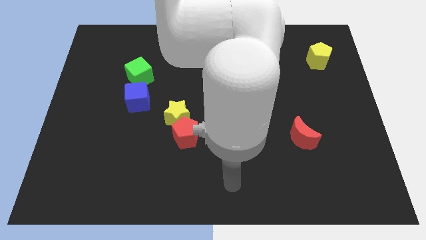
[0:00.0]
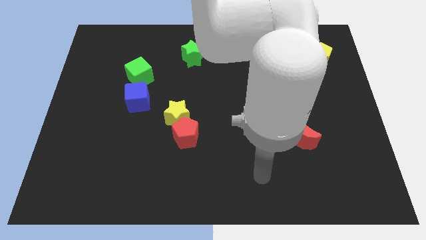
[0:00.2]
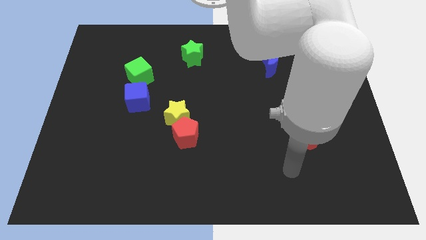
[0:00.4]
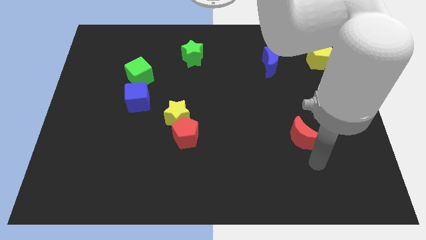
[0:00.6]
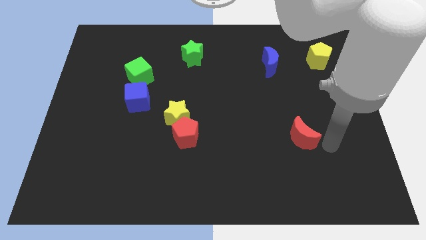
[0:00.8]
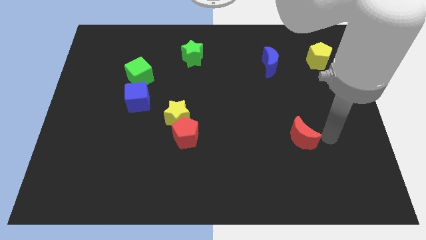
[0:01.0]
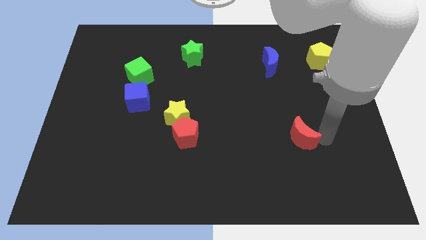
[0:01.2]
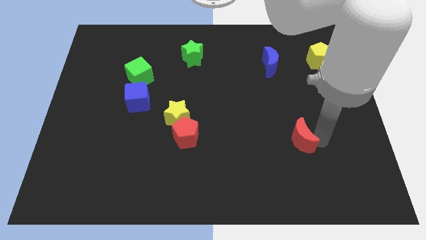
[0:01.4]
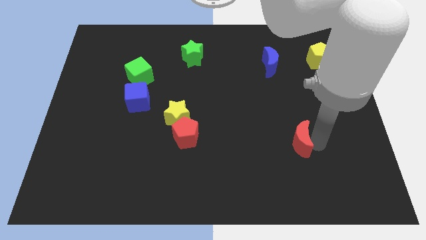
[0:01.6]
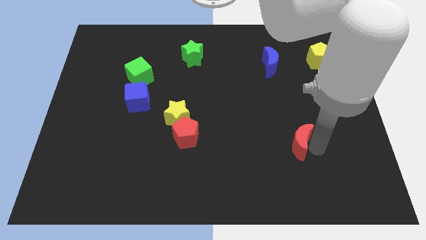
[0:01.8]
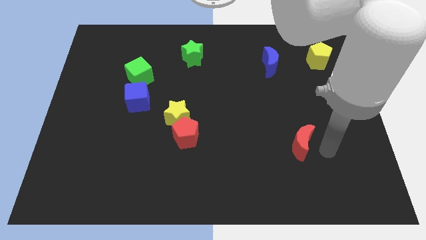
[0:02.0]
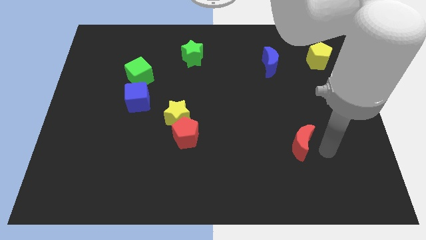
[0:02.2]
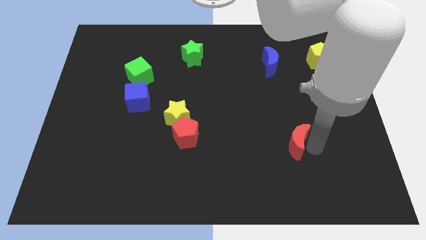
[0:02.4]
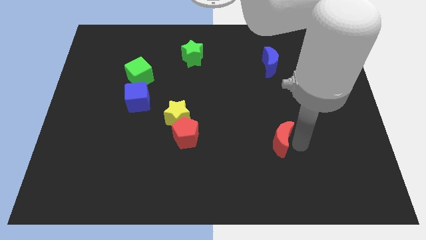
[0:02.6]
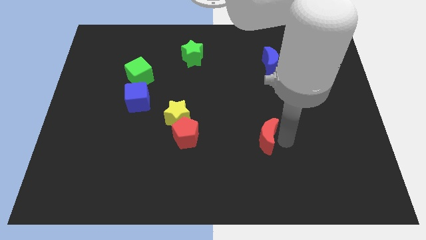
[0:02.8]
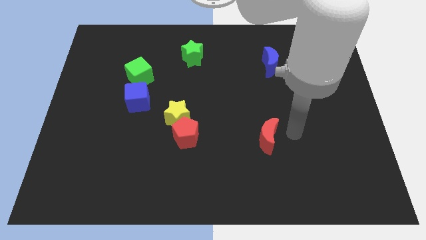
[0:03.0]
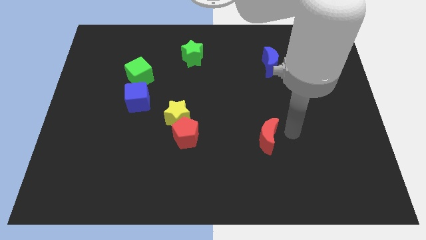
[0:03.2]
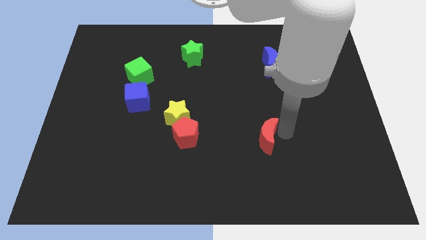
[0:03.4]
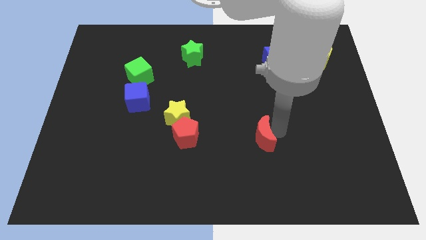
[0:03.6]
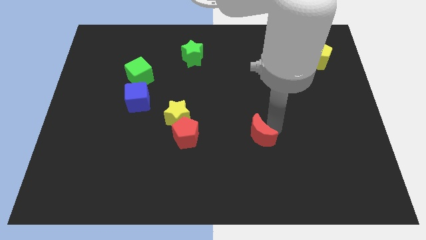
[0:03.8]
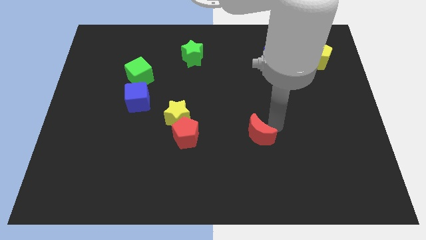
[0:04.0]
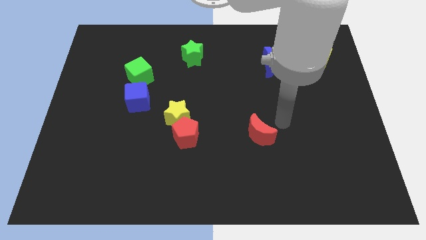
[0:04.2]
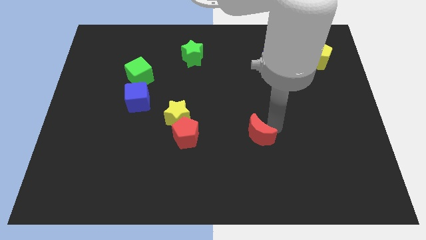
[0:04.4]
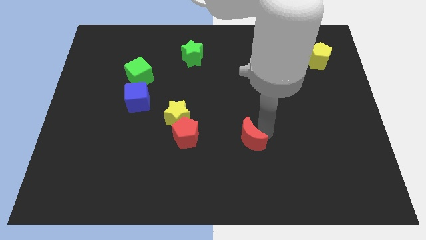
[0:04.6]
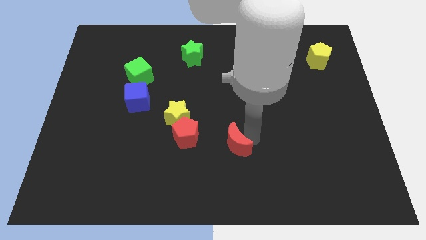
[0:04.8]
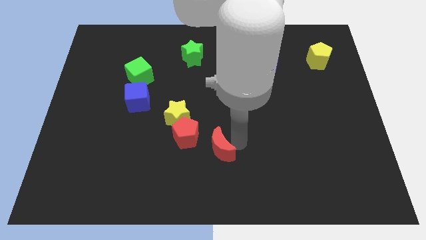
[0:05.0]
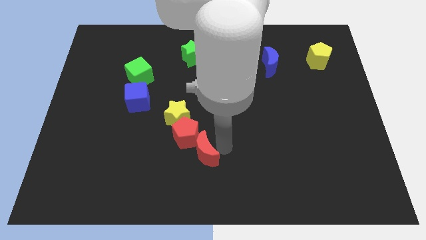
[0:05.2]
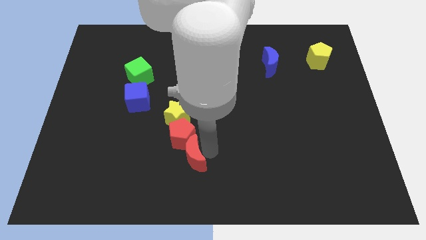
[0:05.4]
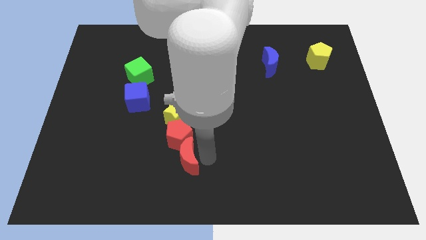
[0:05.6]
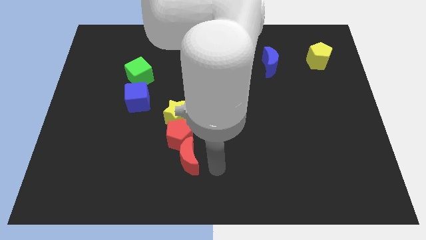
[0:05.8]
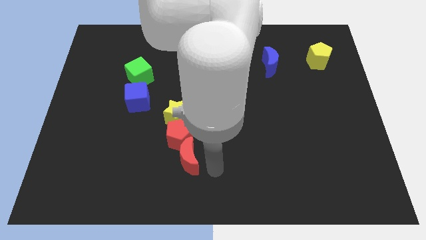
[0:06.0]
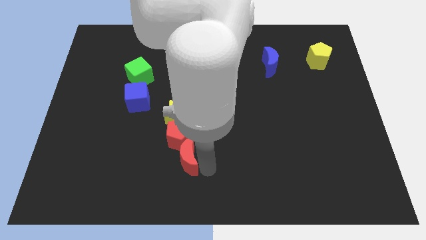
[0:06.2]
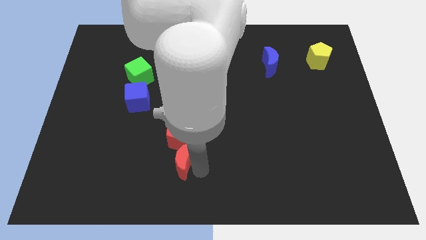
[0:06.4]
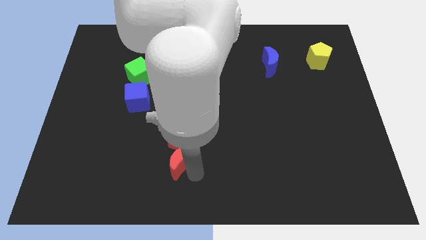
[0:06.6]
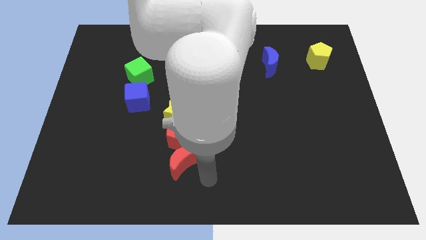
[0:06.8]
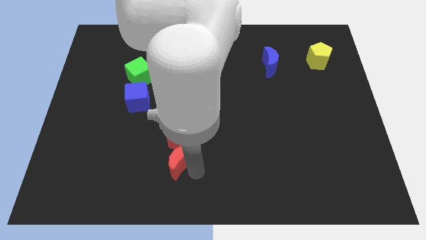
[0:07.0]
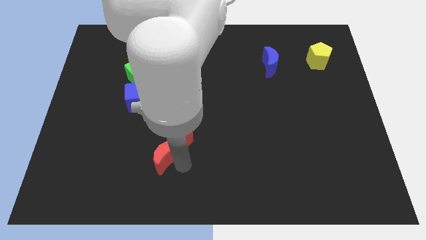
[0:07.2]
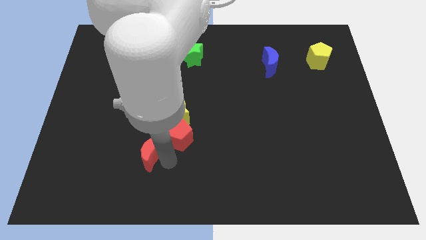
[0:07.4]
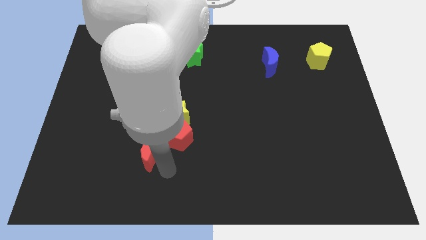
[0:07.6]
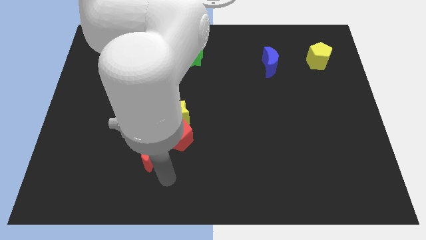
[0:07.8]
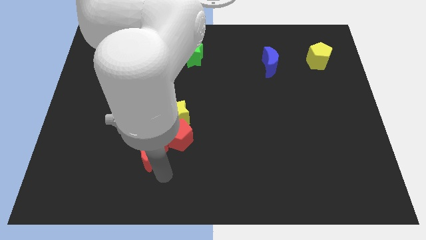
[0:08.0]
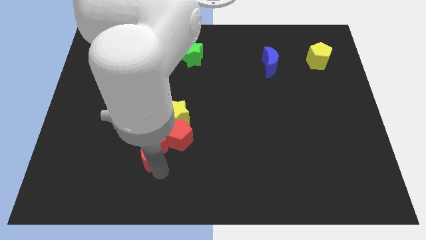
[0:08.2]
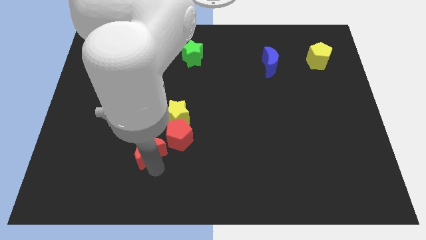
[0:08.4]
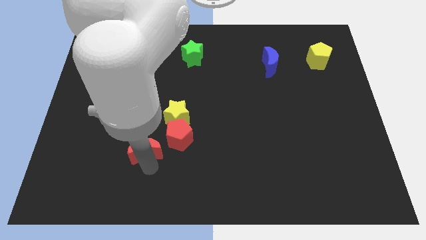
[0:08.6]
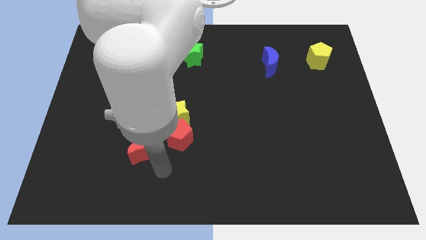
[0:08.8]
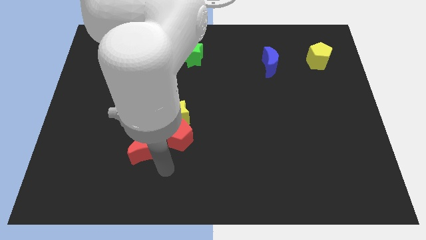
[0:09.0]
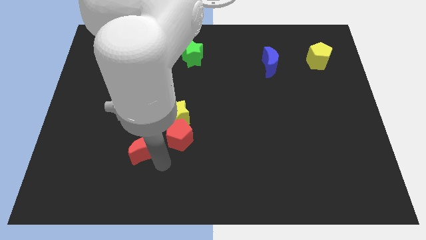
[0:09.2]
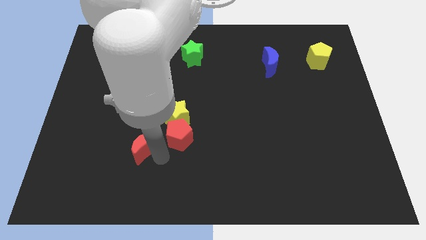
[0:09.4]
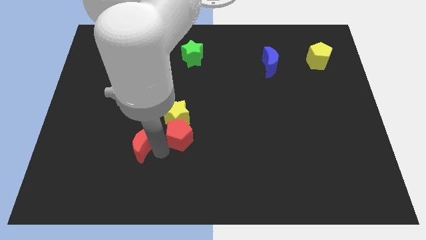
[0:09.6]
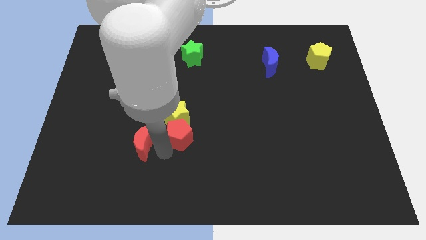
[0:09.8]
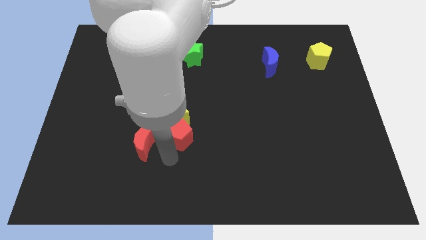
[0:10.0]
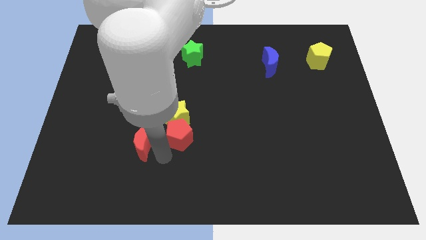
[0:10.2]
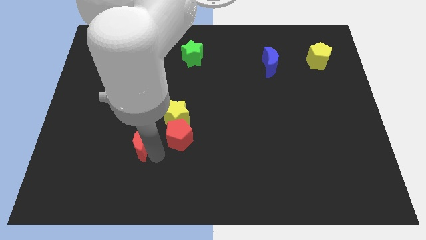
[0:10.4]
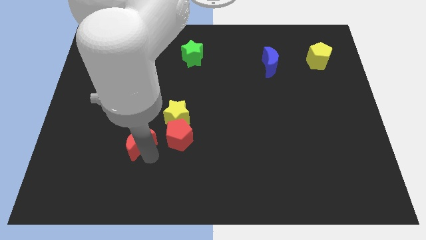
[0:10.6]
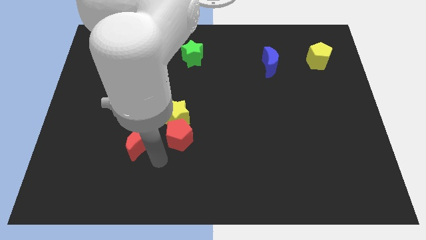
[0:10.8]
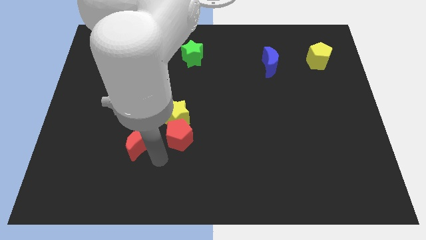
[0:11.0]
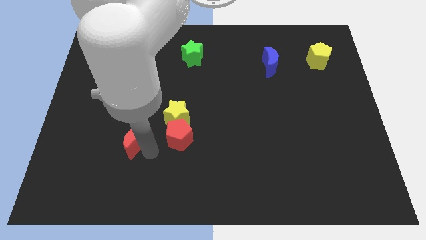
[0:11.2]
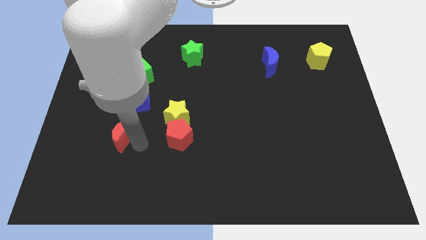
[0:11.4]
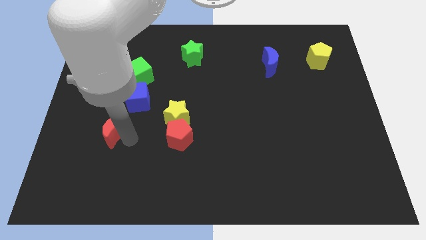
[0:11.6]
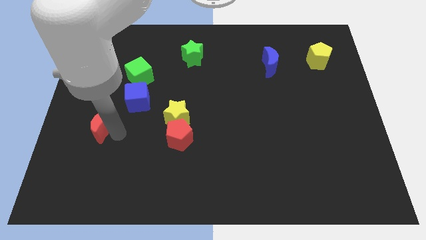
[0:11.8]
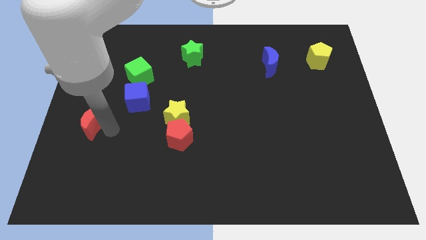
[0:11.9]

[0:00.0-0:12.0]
put the red moon to the left side of the board

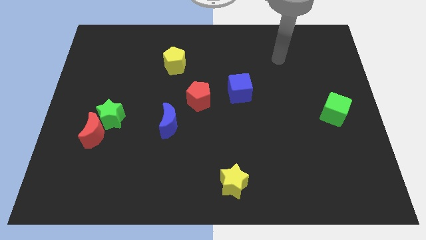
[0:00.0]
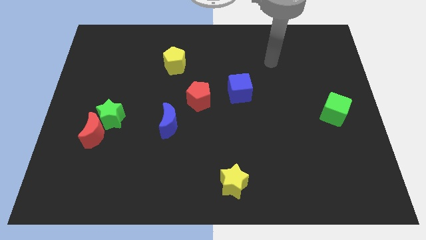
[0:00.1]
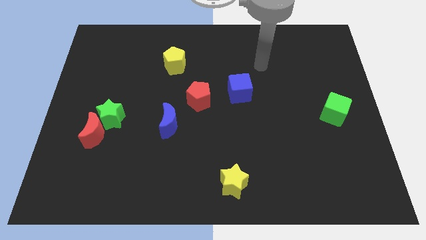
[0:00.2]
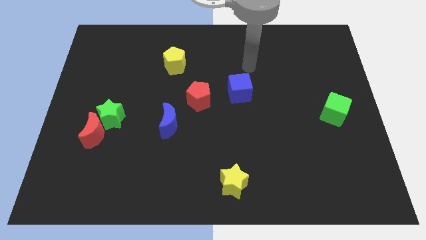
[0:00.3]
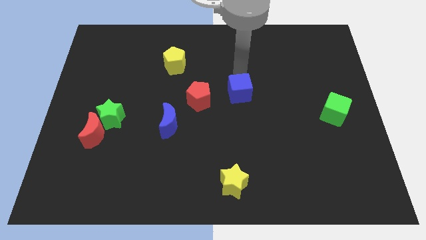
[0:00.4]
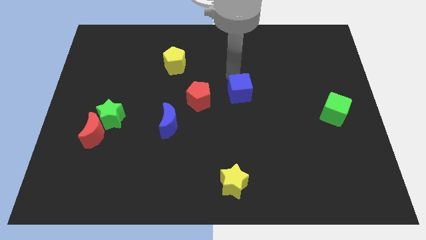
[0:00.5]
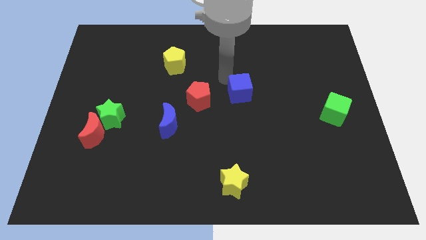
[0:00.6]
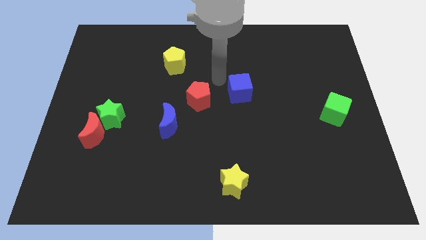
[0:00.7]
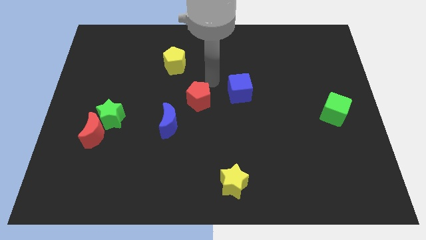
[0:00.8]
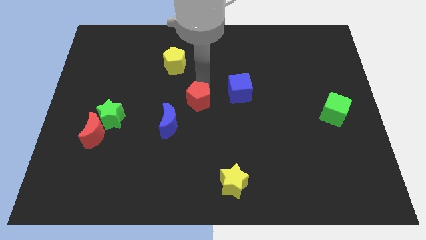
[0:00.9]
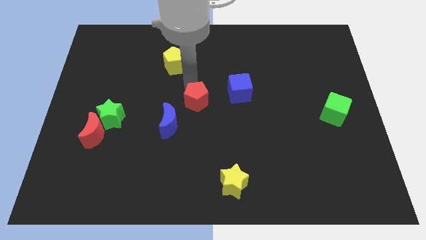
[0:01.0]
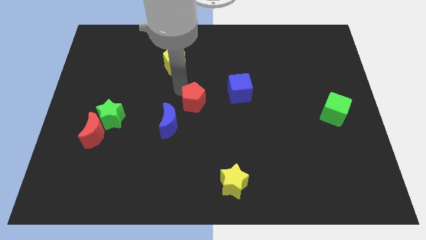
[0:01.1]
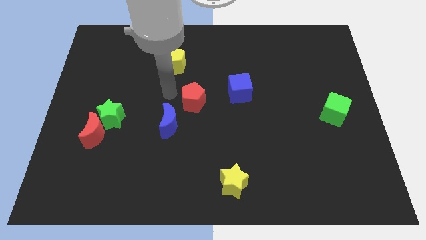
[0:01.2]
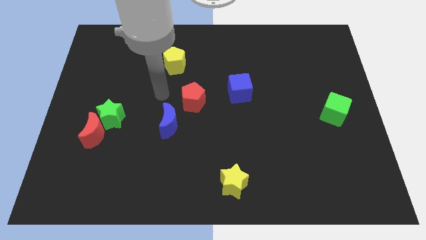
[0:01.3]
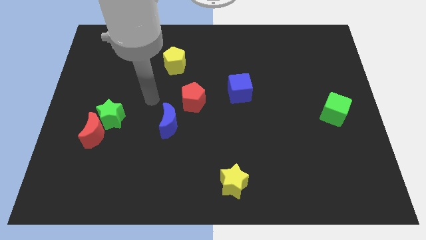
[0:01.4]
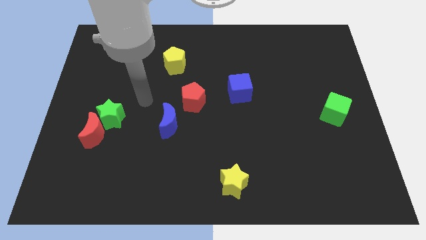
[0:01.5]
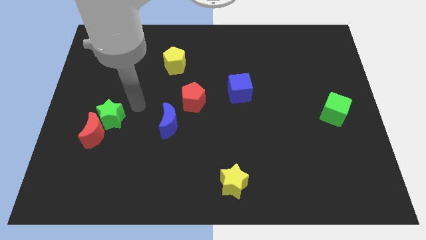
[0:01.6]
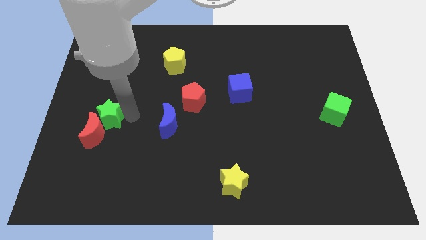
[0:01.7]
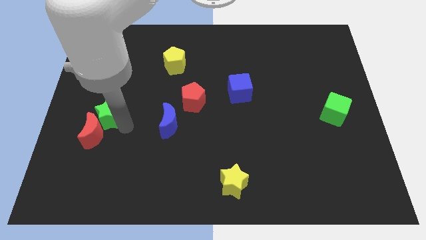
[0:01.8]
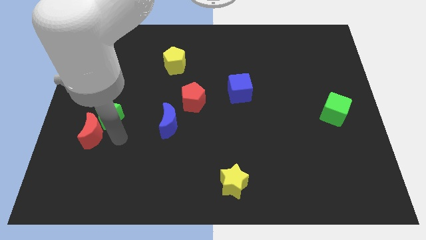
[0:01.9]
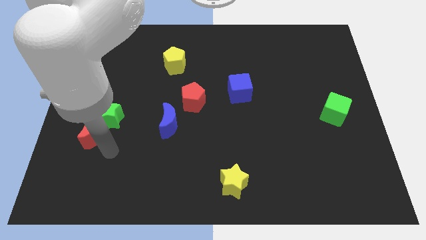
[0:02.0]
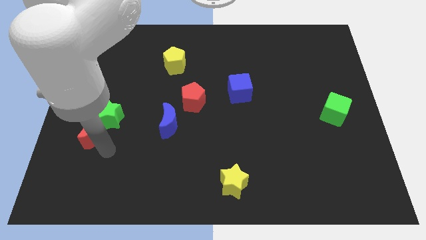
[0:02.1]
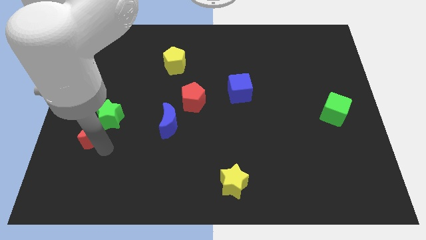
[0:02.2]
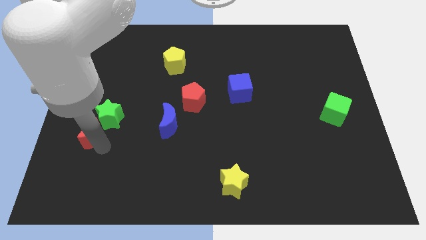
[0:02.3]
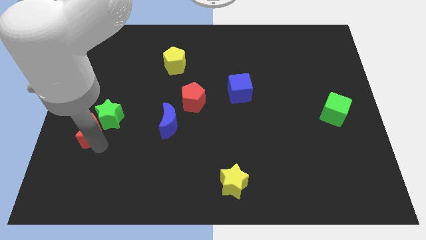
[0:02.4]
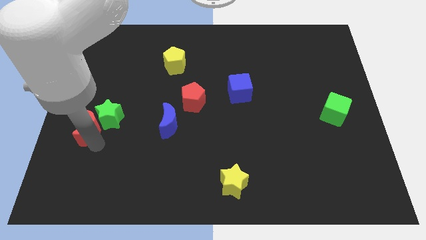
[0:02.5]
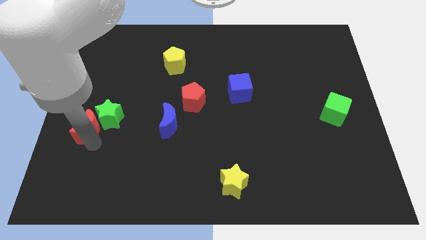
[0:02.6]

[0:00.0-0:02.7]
slide the red moon to the left side of the board
